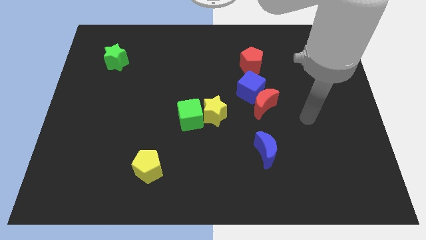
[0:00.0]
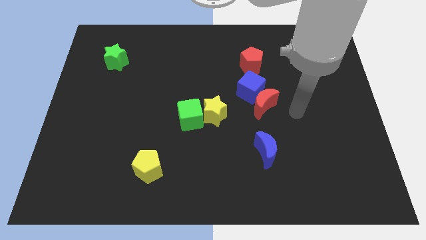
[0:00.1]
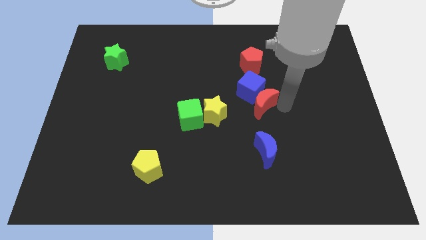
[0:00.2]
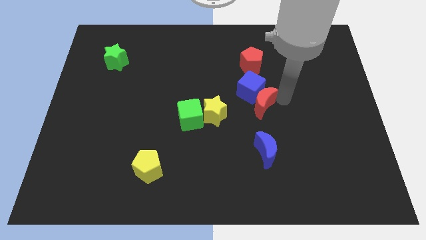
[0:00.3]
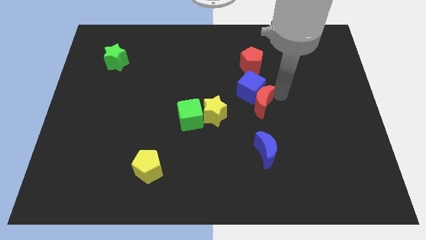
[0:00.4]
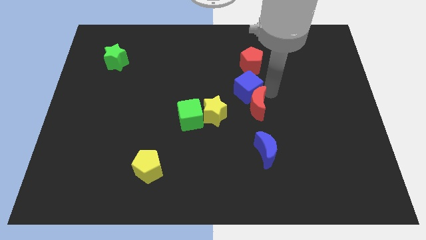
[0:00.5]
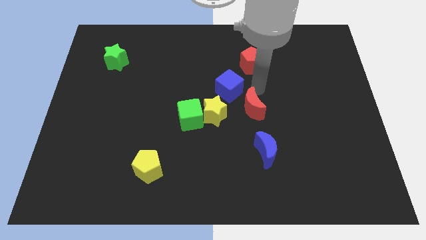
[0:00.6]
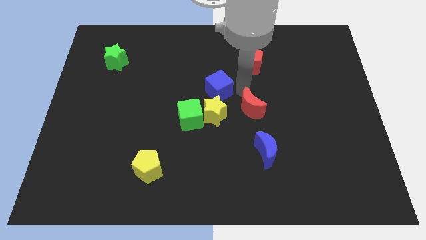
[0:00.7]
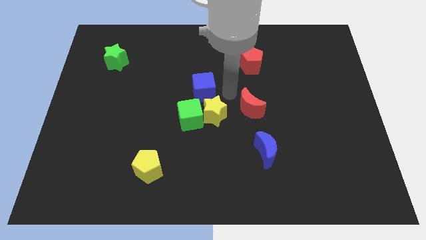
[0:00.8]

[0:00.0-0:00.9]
separate the red moon from the blue cube

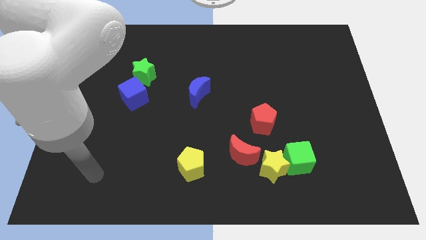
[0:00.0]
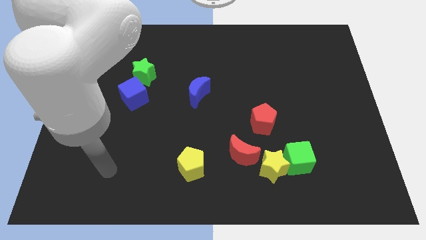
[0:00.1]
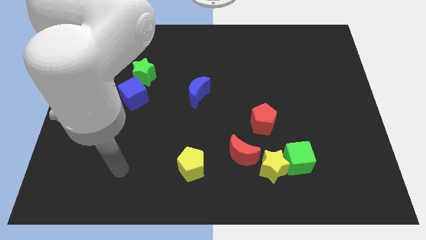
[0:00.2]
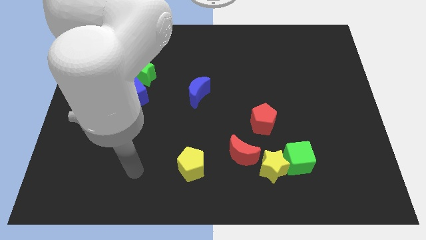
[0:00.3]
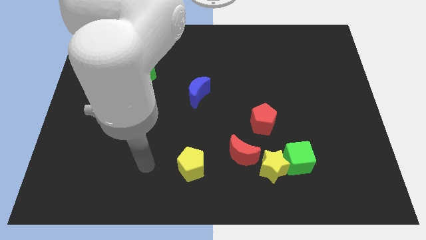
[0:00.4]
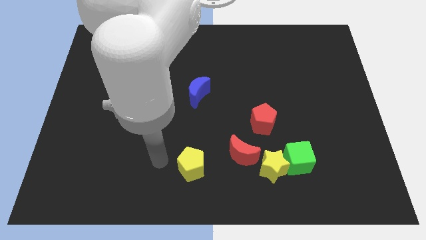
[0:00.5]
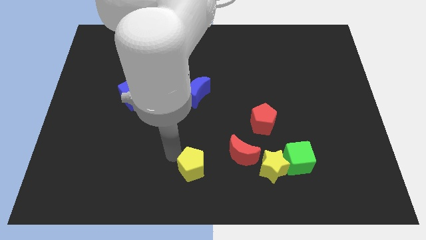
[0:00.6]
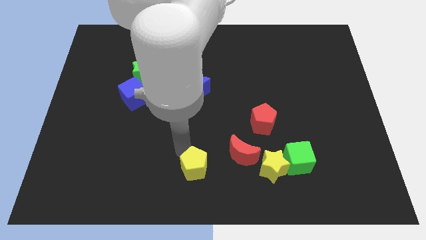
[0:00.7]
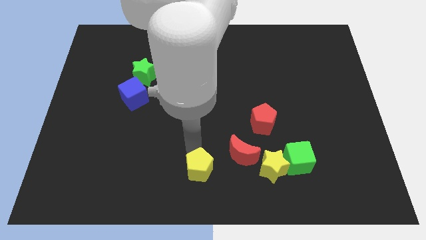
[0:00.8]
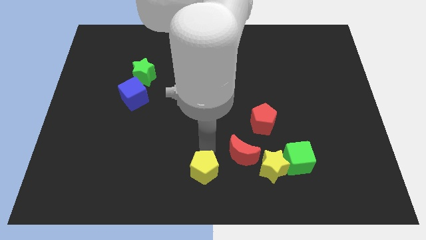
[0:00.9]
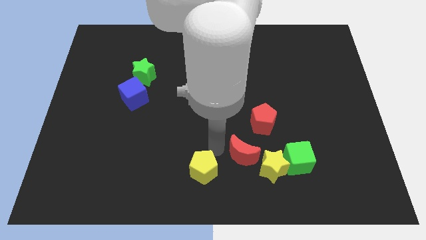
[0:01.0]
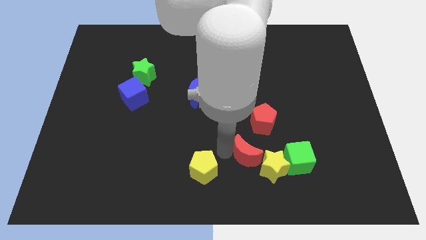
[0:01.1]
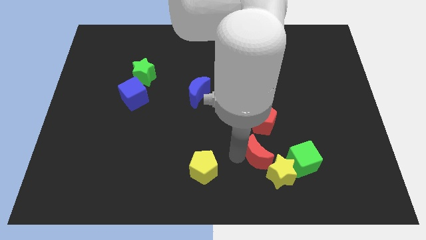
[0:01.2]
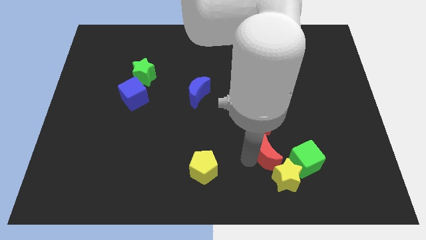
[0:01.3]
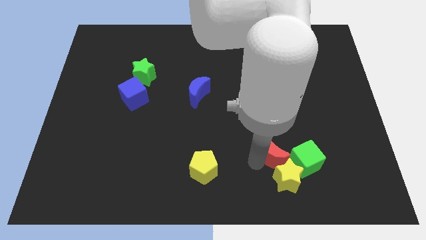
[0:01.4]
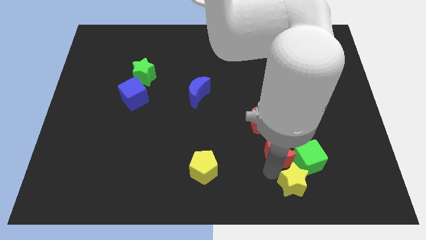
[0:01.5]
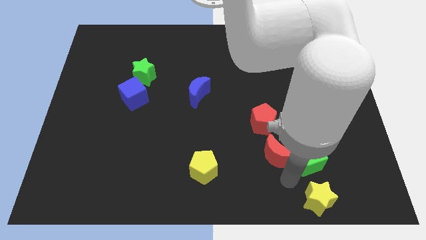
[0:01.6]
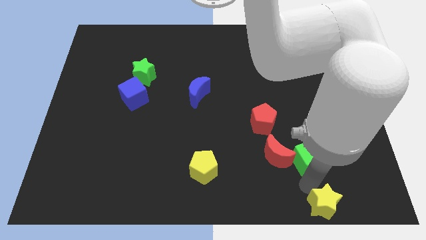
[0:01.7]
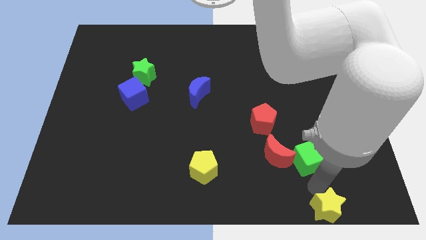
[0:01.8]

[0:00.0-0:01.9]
pull the green cube apart from the yellow star

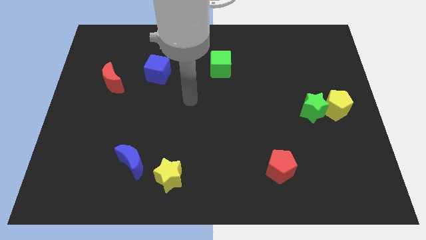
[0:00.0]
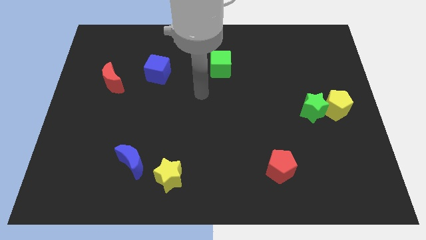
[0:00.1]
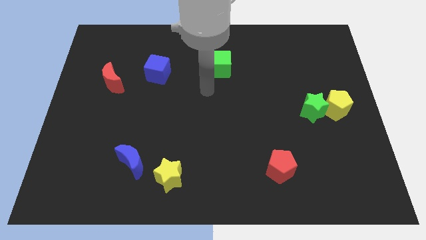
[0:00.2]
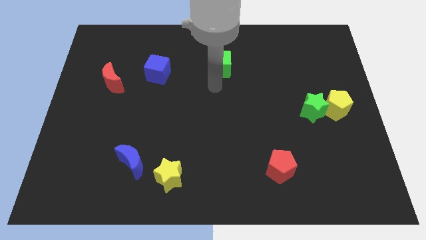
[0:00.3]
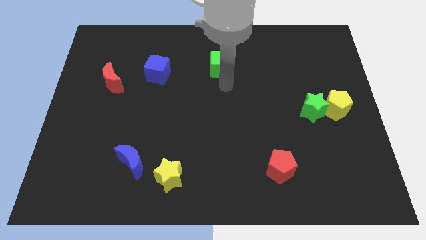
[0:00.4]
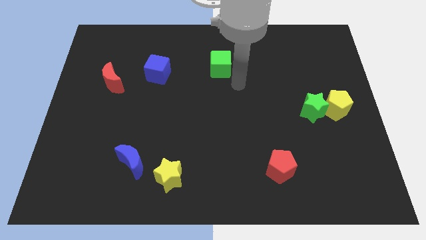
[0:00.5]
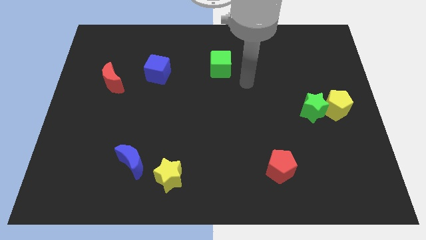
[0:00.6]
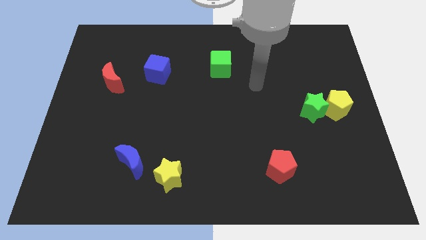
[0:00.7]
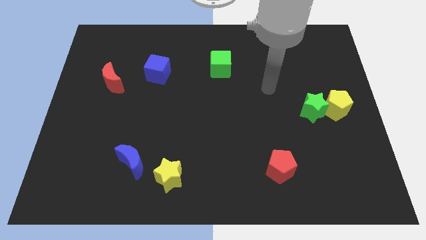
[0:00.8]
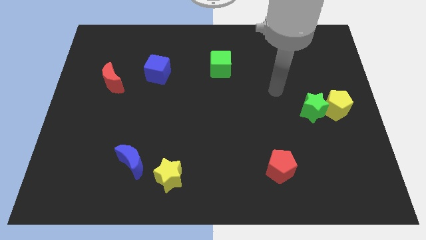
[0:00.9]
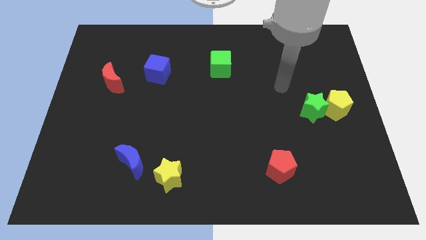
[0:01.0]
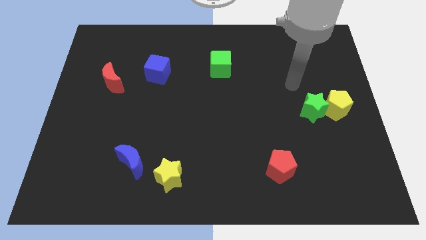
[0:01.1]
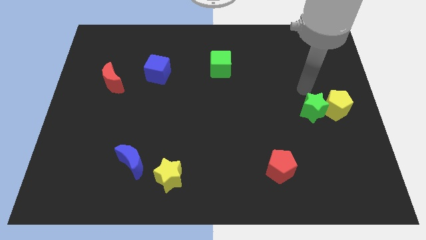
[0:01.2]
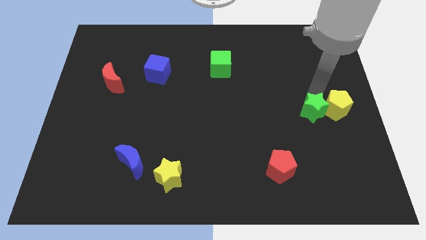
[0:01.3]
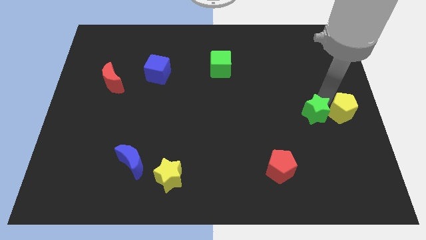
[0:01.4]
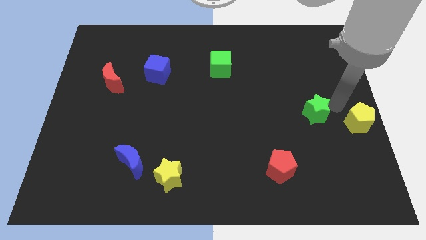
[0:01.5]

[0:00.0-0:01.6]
move the green star away from the yellow pentagon

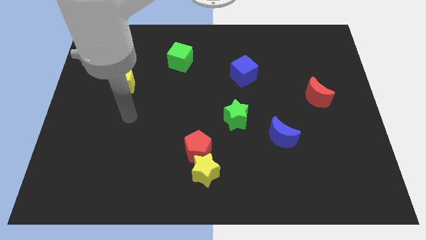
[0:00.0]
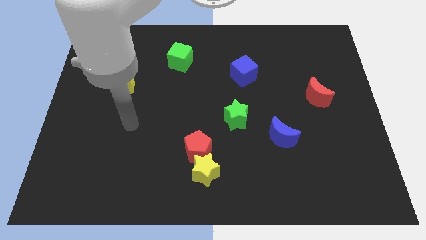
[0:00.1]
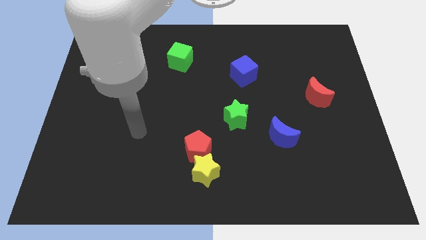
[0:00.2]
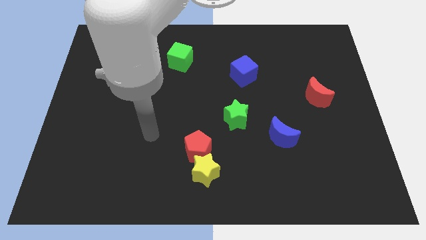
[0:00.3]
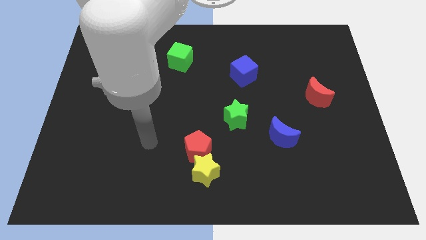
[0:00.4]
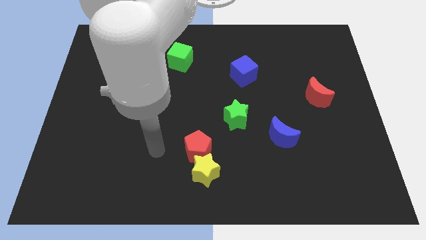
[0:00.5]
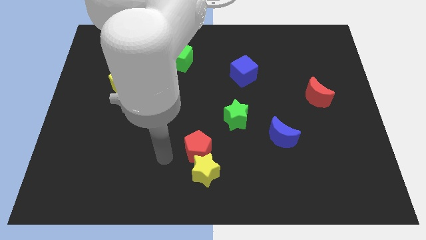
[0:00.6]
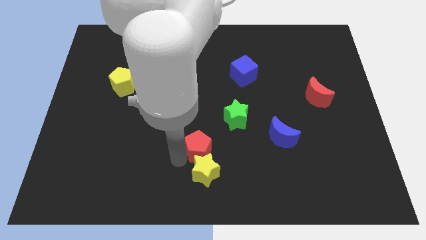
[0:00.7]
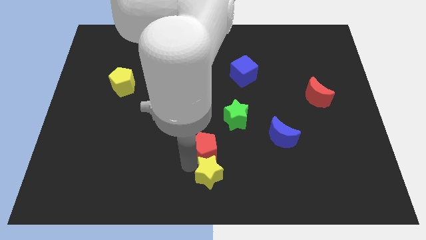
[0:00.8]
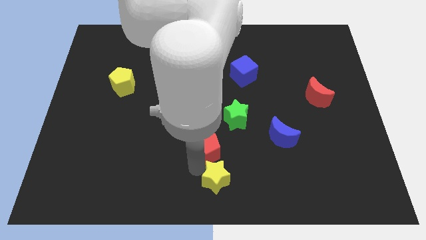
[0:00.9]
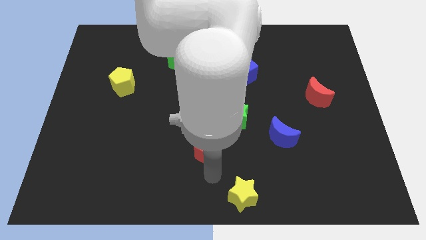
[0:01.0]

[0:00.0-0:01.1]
pull the red pentagon apart from the yellow star

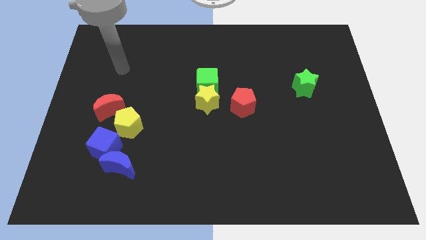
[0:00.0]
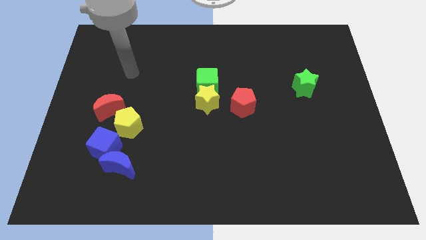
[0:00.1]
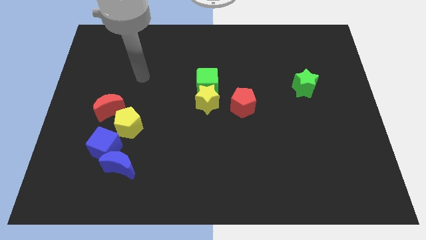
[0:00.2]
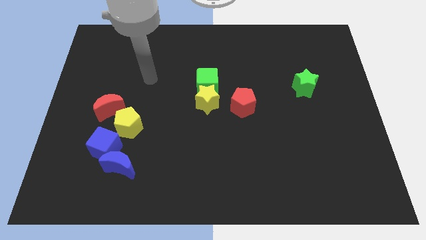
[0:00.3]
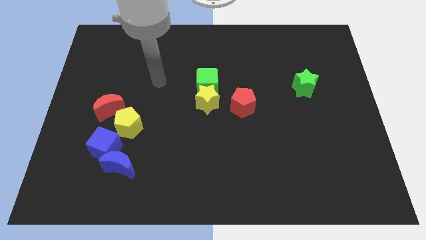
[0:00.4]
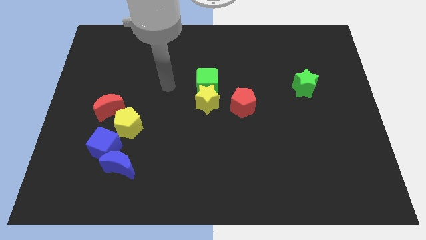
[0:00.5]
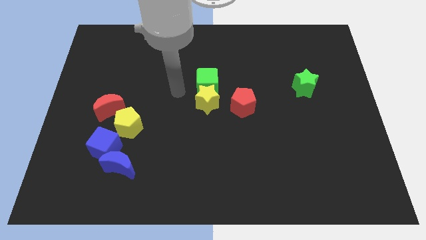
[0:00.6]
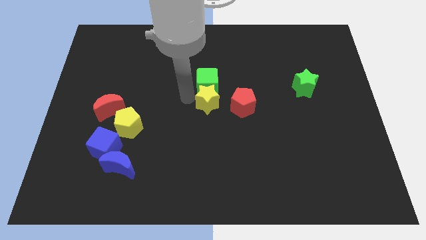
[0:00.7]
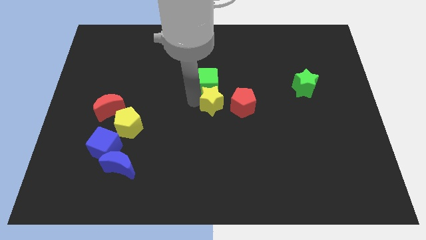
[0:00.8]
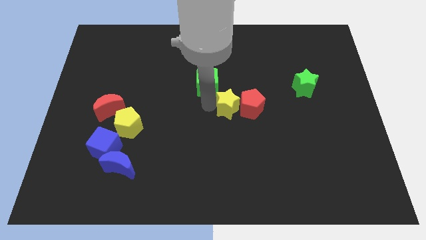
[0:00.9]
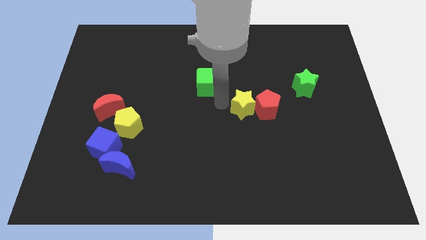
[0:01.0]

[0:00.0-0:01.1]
separate the green cube from the yellow star

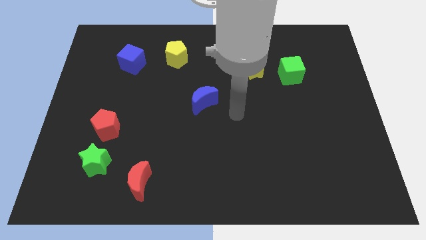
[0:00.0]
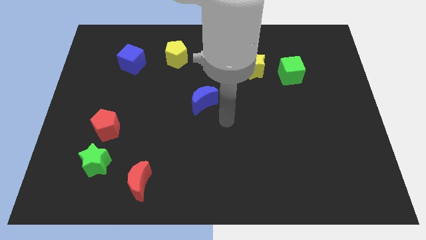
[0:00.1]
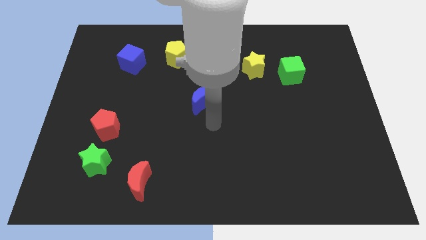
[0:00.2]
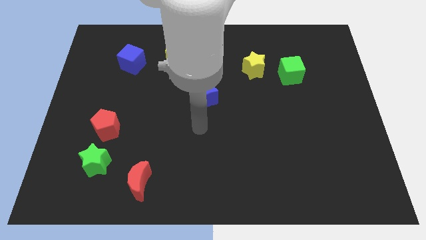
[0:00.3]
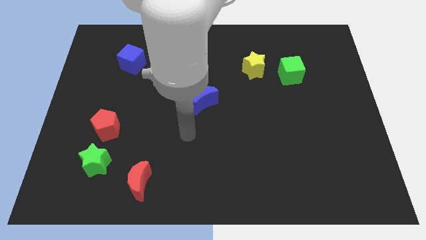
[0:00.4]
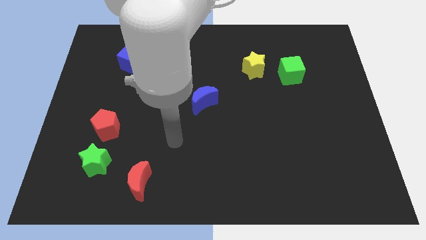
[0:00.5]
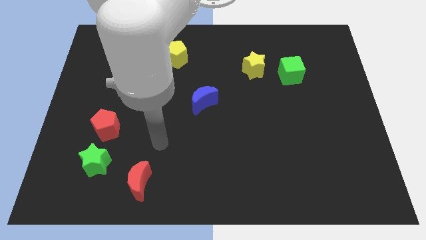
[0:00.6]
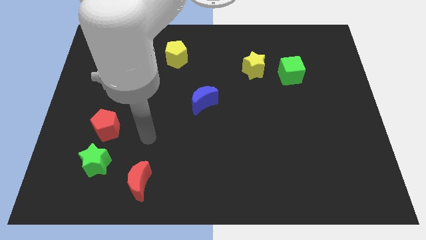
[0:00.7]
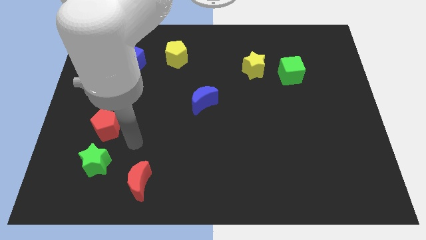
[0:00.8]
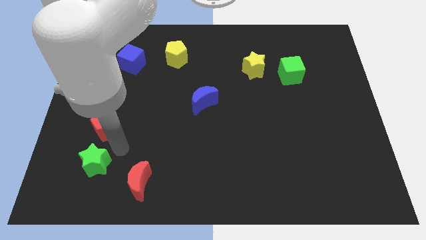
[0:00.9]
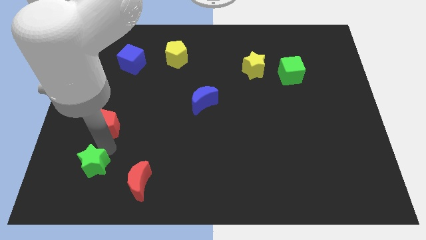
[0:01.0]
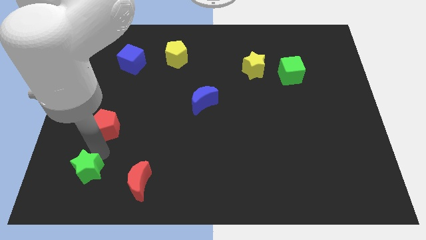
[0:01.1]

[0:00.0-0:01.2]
separate the red pentagon from the green star

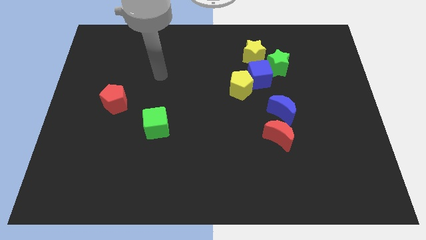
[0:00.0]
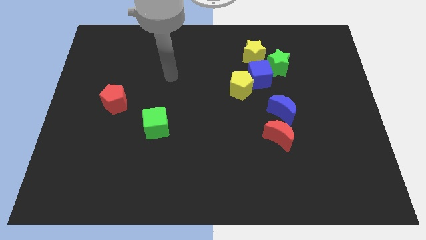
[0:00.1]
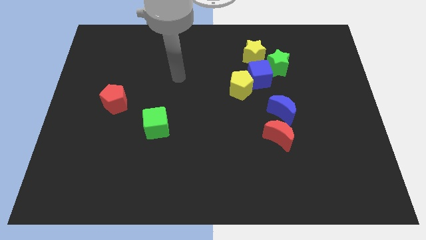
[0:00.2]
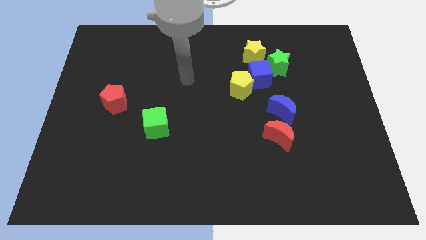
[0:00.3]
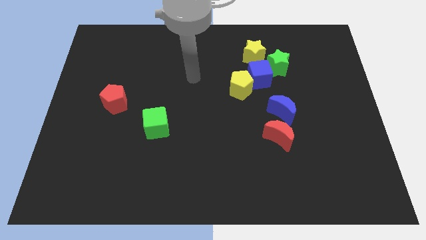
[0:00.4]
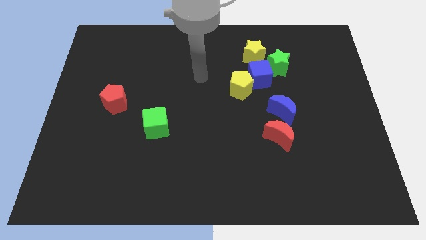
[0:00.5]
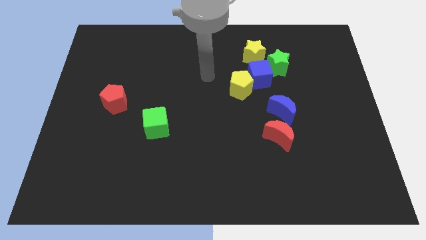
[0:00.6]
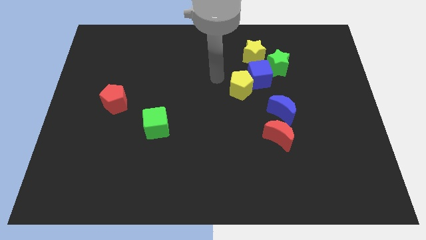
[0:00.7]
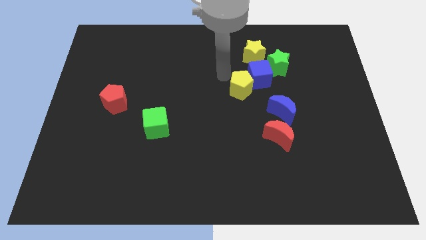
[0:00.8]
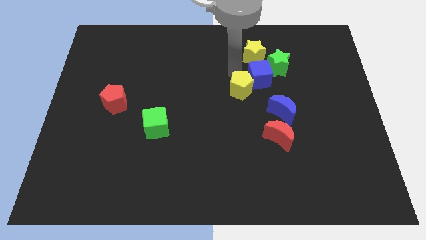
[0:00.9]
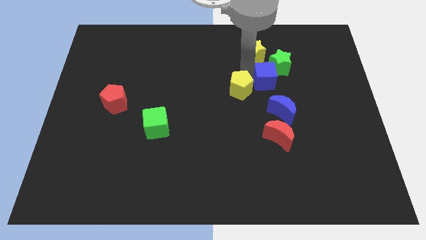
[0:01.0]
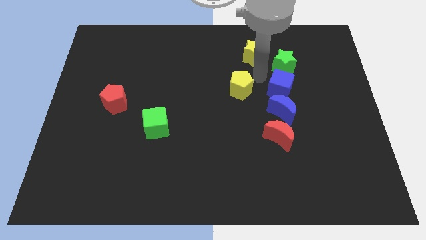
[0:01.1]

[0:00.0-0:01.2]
pull the yellow pentagon apart from the blue cube

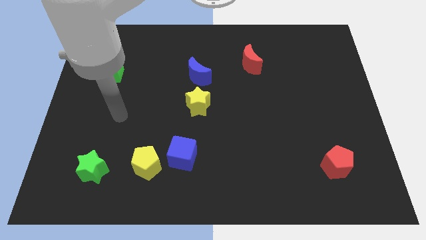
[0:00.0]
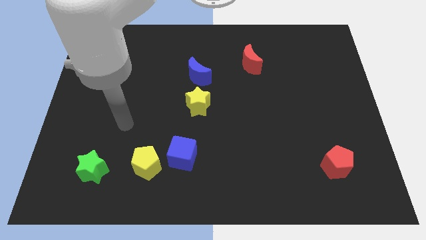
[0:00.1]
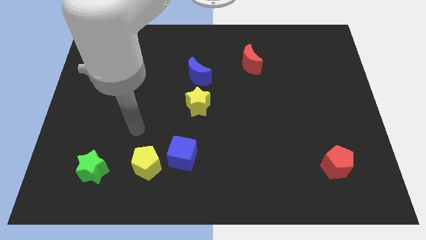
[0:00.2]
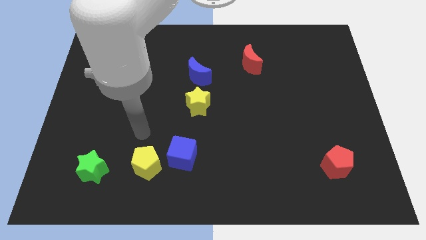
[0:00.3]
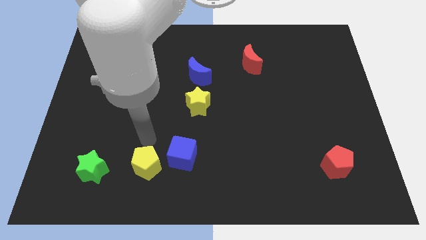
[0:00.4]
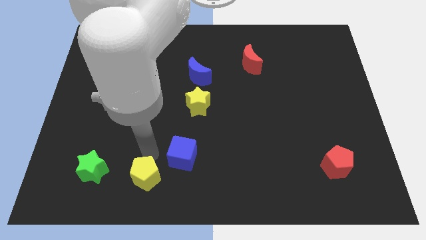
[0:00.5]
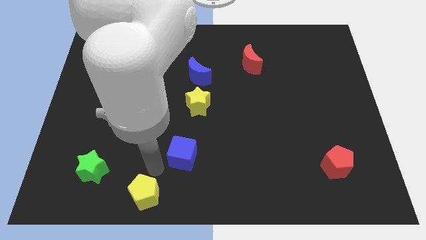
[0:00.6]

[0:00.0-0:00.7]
move the blue cube away from the yellow pentagon
